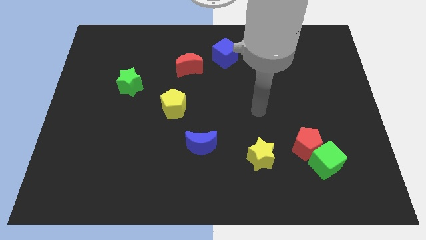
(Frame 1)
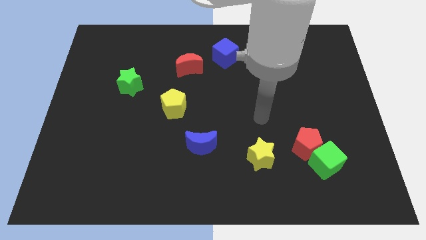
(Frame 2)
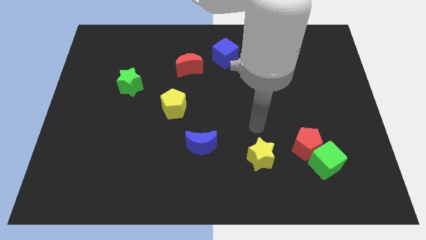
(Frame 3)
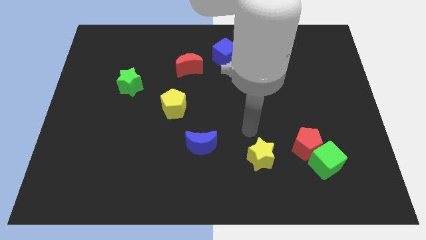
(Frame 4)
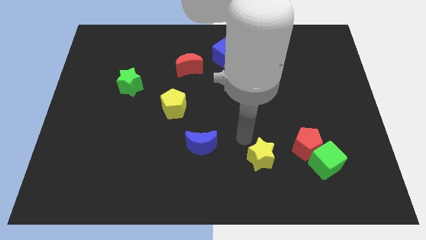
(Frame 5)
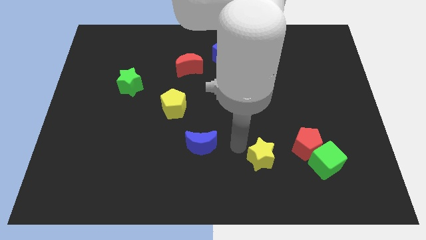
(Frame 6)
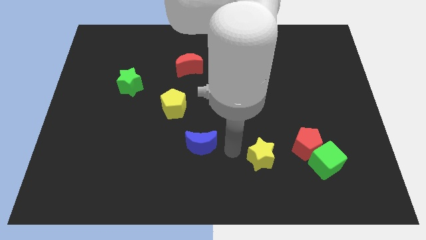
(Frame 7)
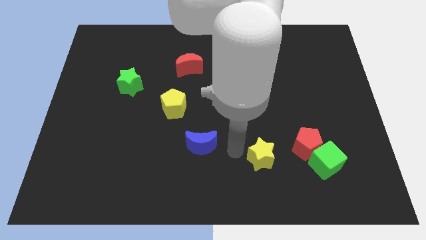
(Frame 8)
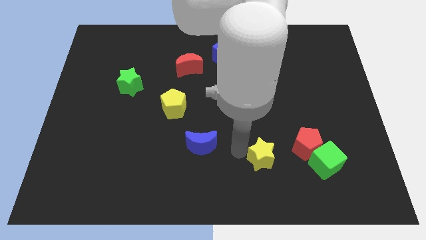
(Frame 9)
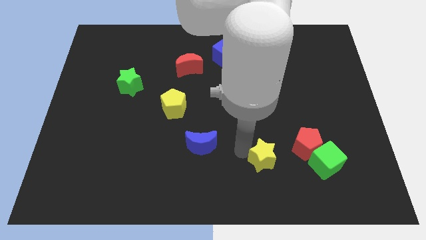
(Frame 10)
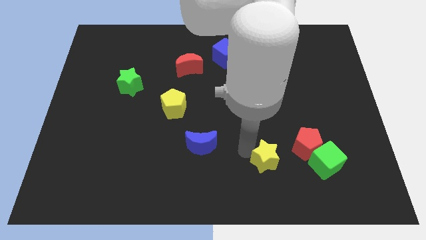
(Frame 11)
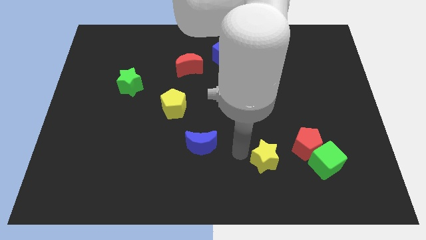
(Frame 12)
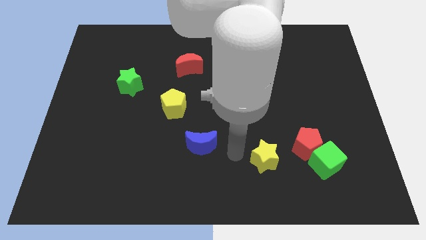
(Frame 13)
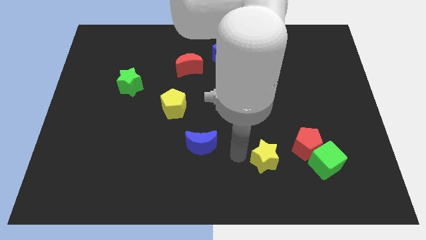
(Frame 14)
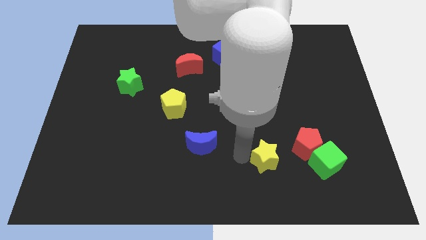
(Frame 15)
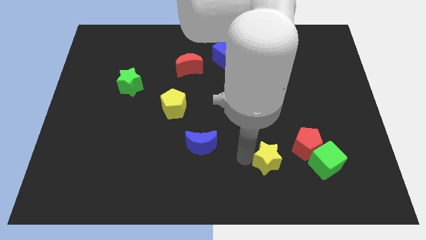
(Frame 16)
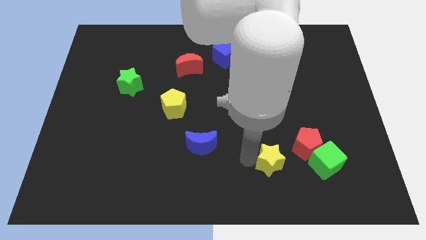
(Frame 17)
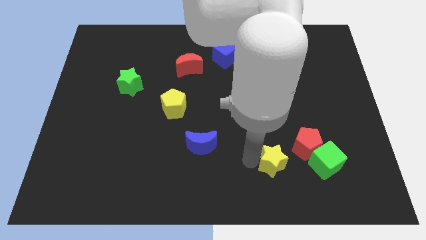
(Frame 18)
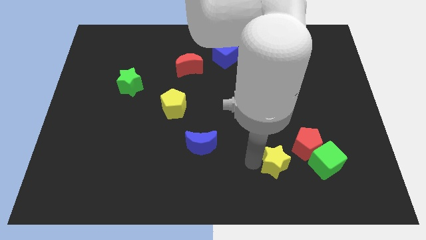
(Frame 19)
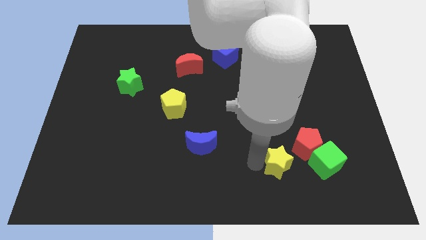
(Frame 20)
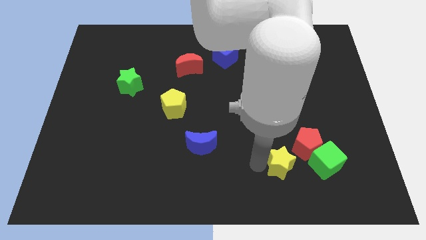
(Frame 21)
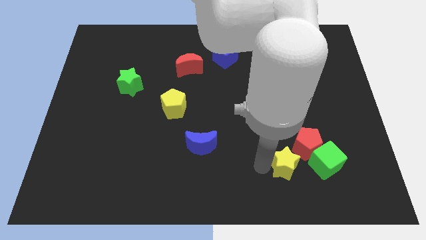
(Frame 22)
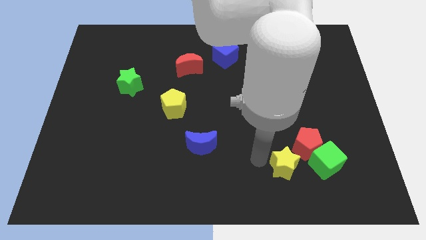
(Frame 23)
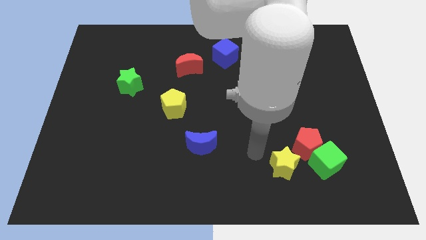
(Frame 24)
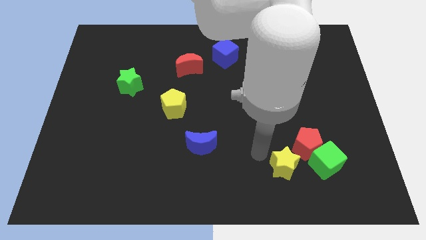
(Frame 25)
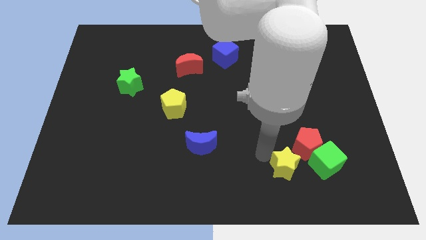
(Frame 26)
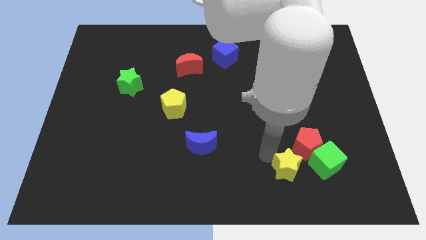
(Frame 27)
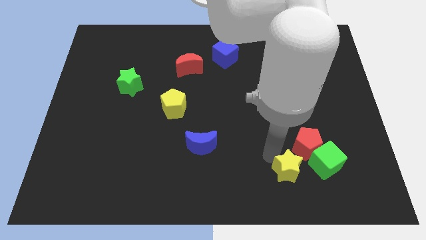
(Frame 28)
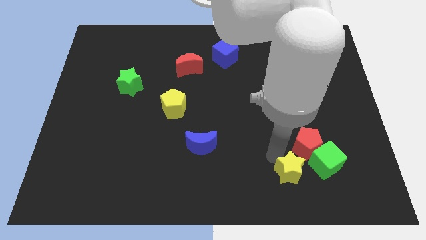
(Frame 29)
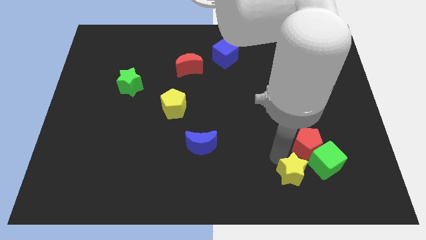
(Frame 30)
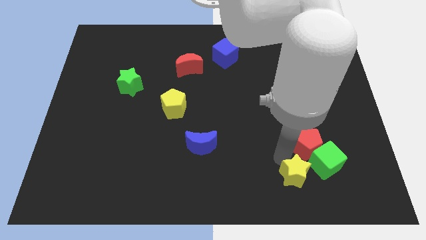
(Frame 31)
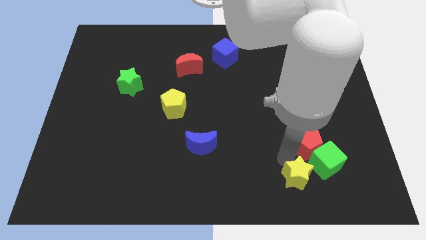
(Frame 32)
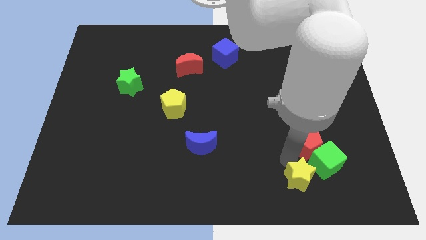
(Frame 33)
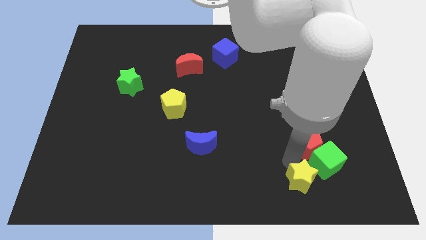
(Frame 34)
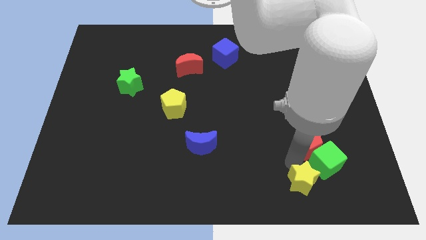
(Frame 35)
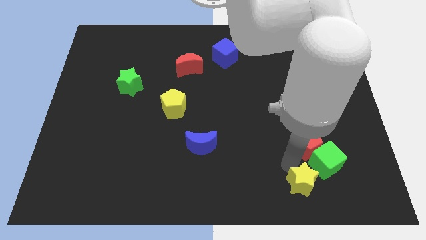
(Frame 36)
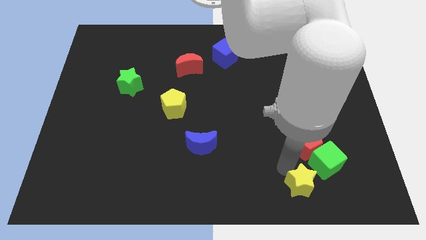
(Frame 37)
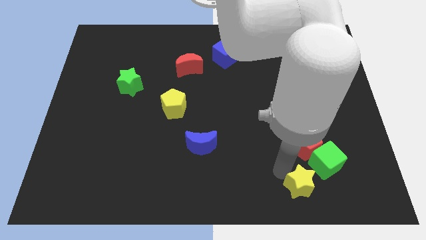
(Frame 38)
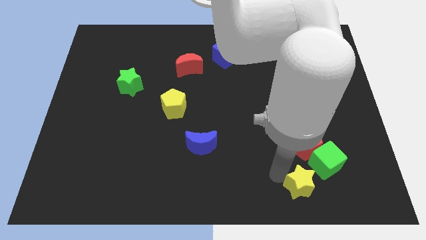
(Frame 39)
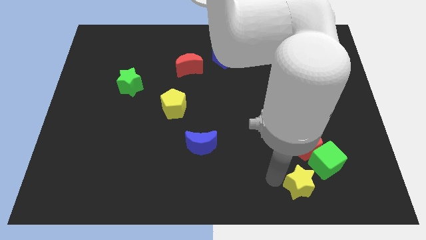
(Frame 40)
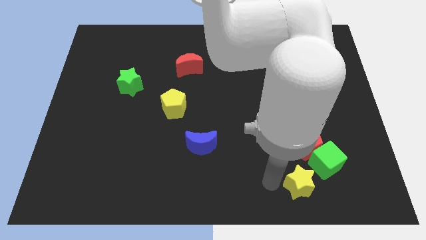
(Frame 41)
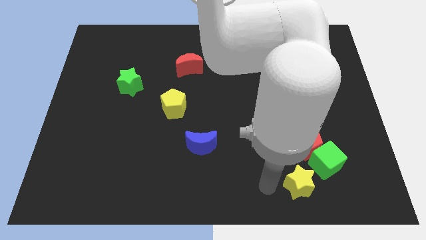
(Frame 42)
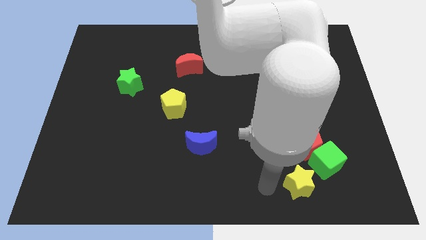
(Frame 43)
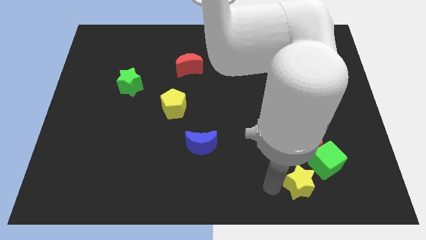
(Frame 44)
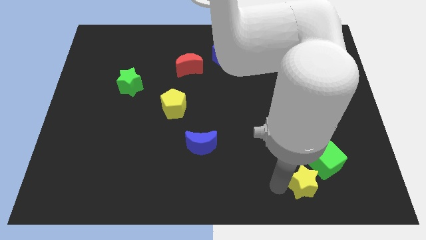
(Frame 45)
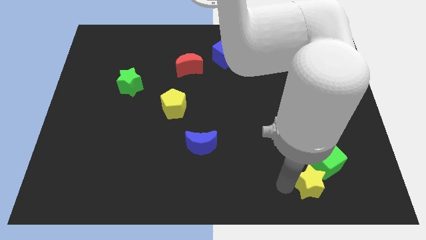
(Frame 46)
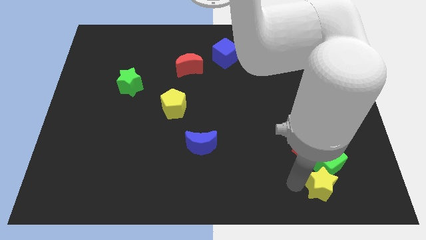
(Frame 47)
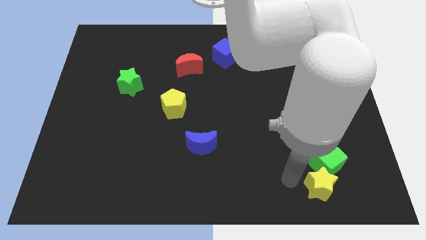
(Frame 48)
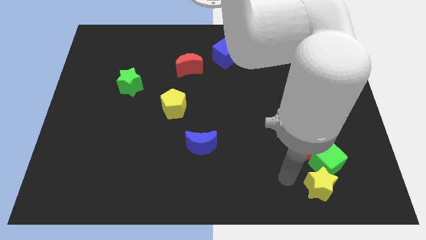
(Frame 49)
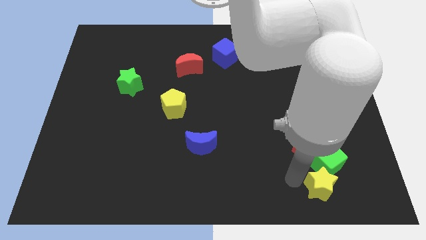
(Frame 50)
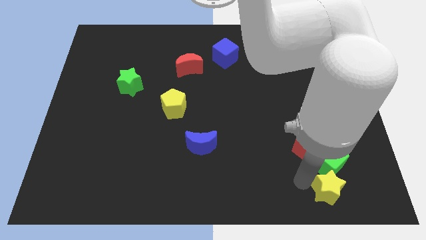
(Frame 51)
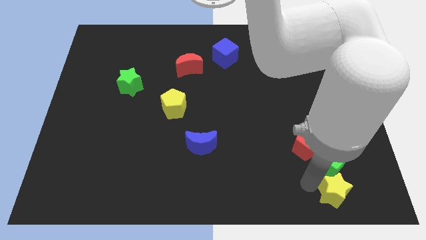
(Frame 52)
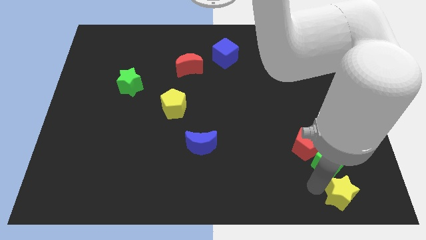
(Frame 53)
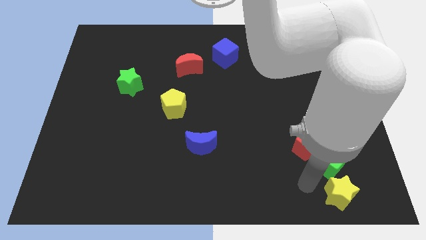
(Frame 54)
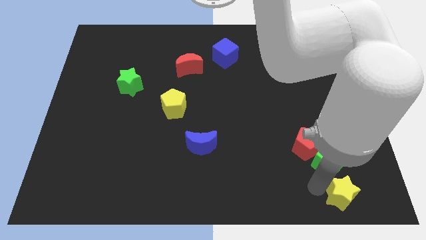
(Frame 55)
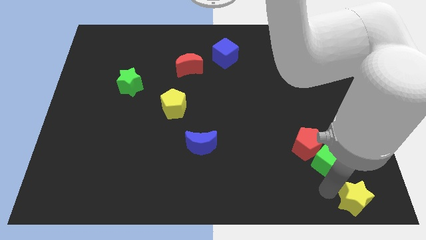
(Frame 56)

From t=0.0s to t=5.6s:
push the yellow star to the bottom right

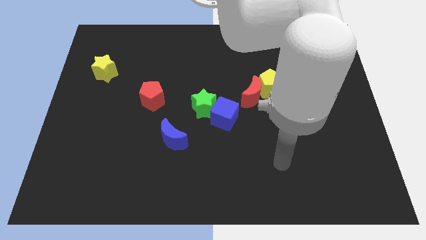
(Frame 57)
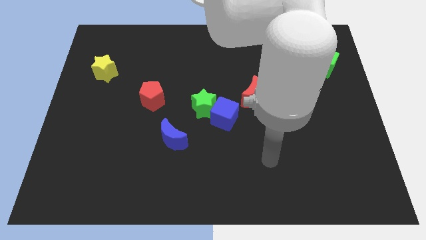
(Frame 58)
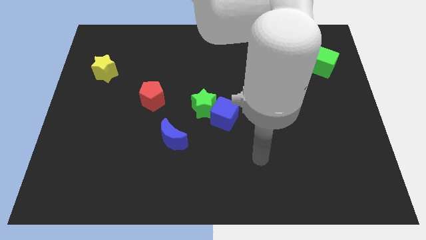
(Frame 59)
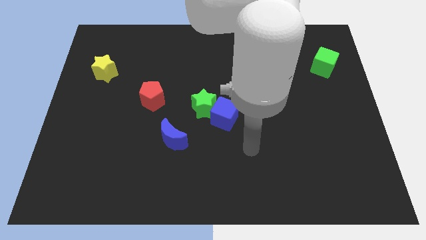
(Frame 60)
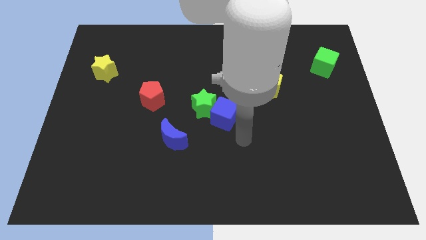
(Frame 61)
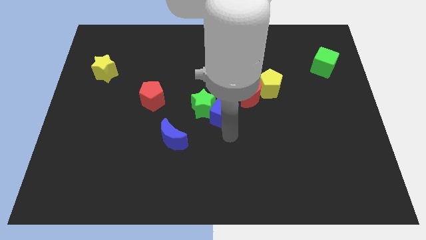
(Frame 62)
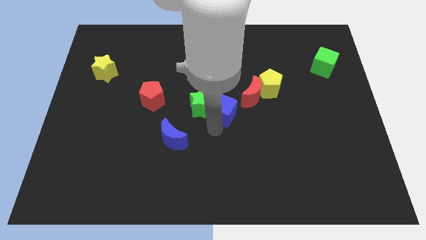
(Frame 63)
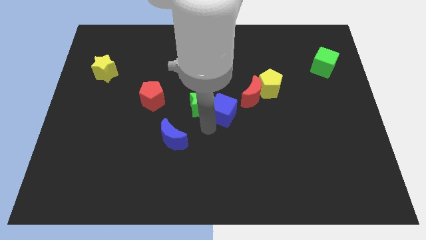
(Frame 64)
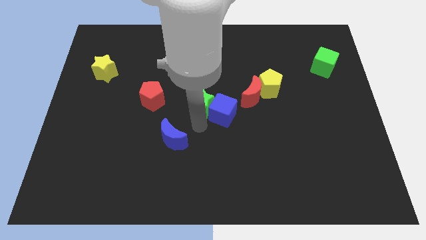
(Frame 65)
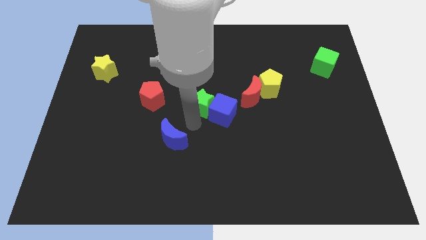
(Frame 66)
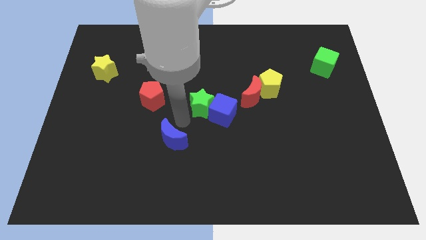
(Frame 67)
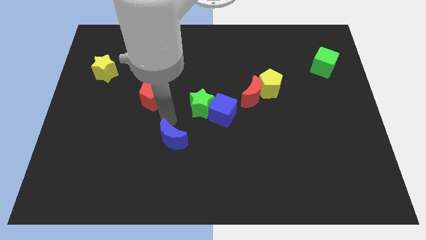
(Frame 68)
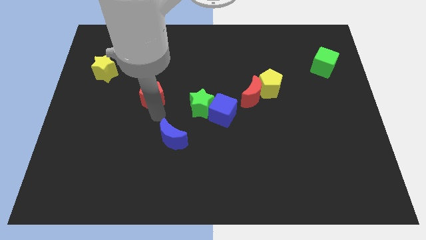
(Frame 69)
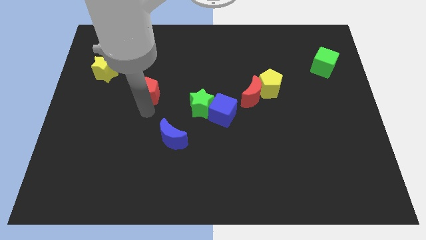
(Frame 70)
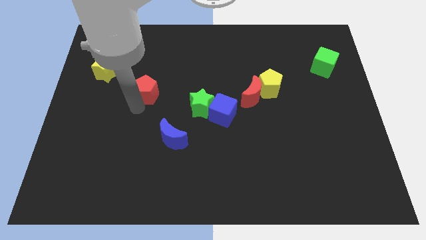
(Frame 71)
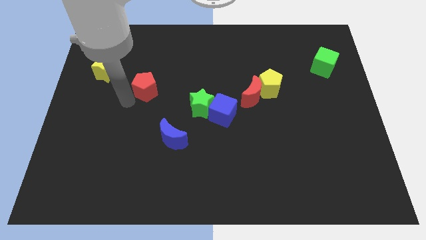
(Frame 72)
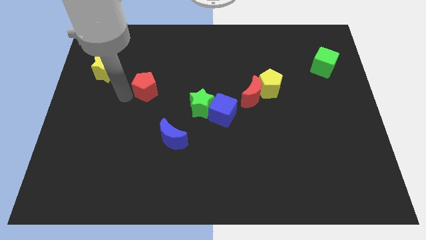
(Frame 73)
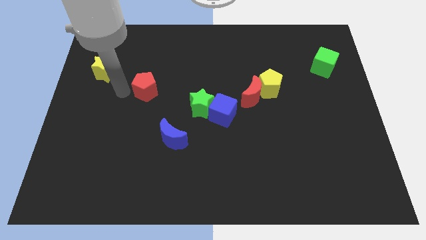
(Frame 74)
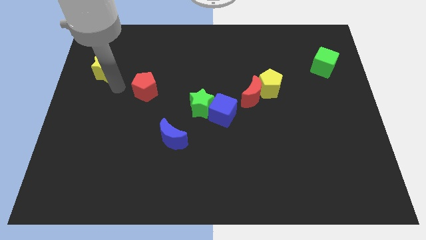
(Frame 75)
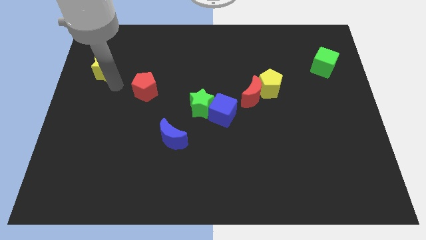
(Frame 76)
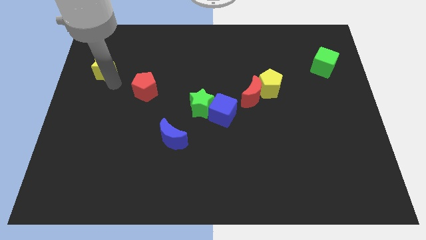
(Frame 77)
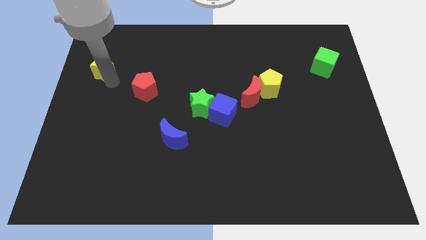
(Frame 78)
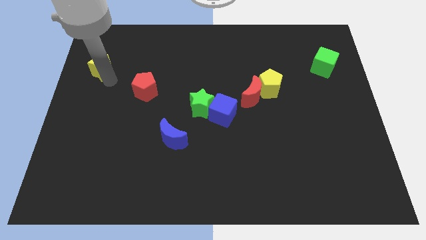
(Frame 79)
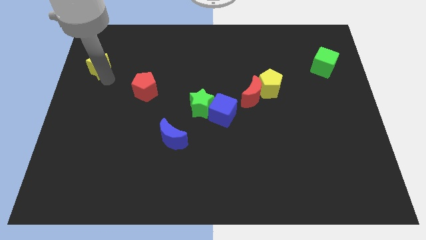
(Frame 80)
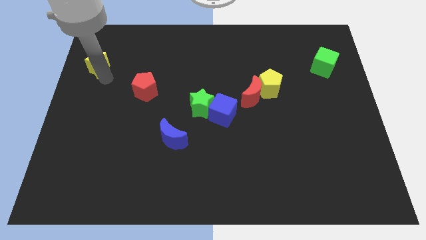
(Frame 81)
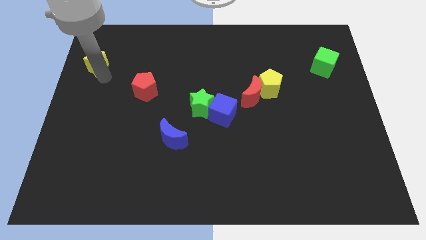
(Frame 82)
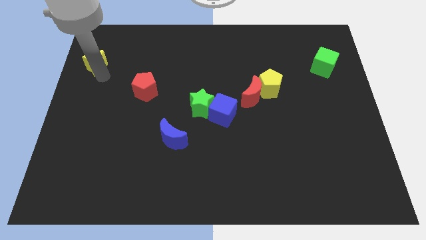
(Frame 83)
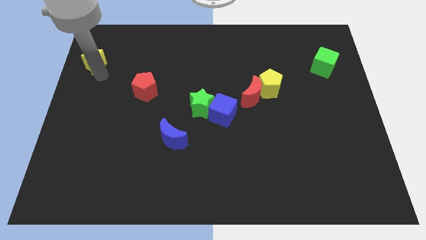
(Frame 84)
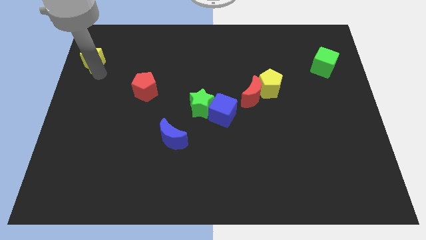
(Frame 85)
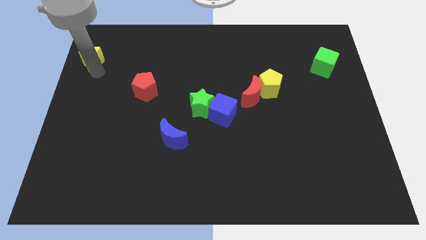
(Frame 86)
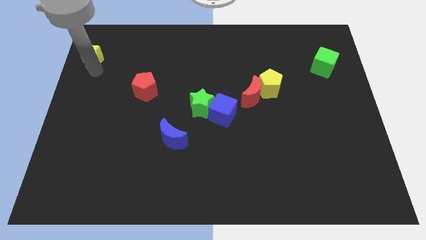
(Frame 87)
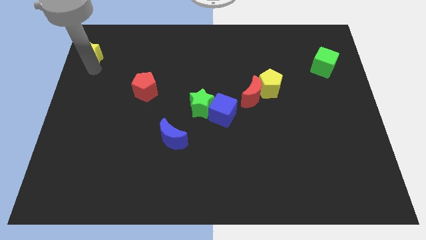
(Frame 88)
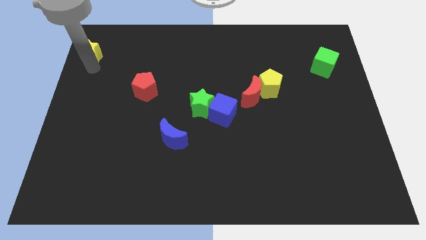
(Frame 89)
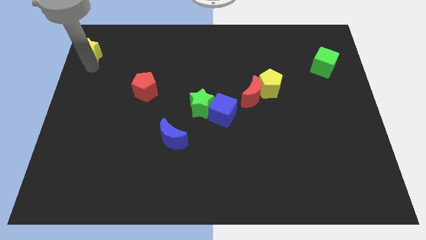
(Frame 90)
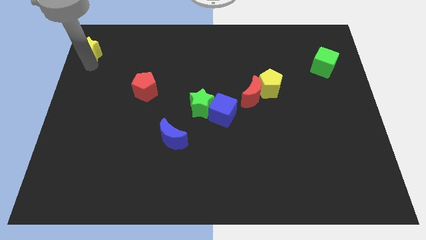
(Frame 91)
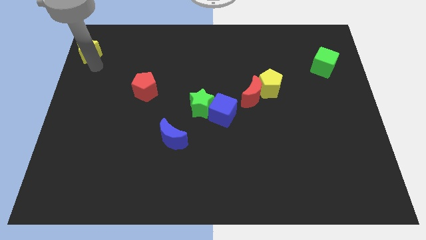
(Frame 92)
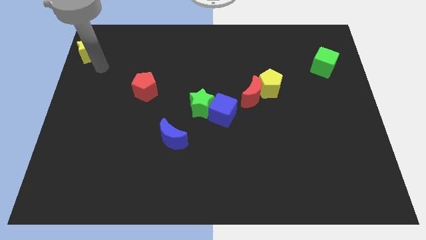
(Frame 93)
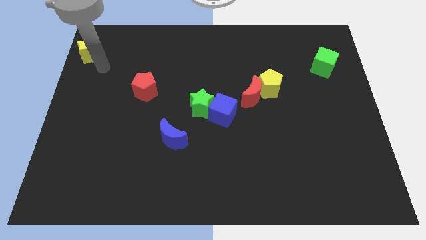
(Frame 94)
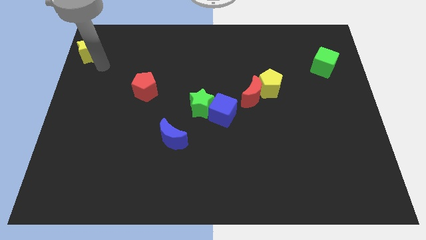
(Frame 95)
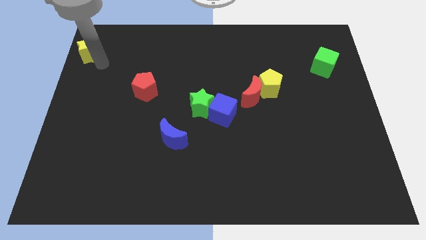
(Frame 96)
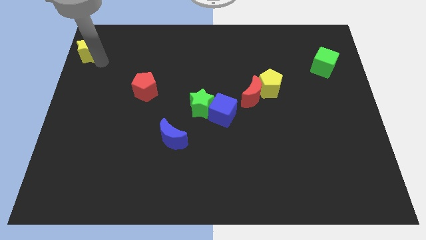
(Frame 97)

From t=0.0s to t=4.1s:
move the yellow star to the top left corner
